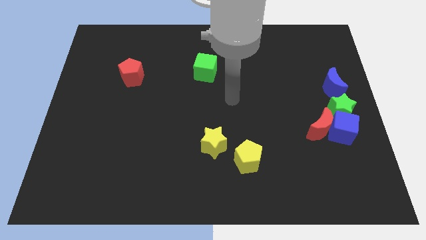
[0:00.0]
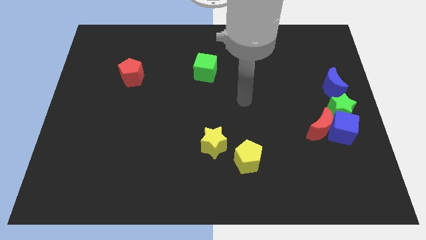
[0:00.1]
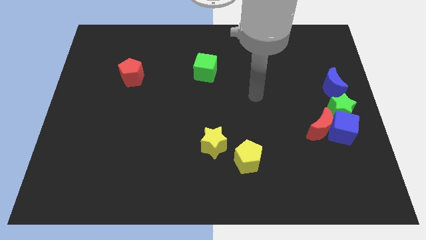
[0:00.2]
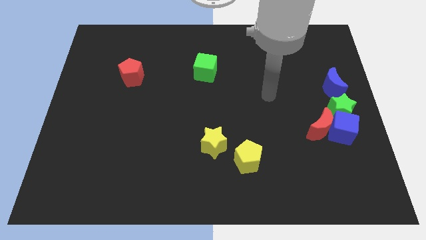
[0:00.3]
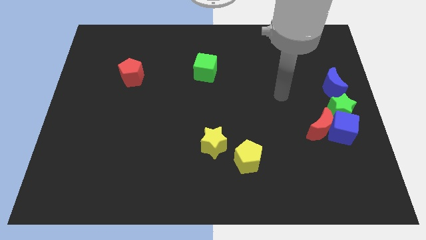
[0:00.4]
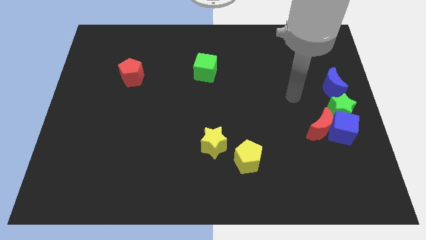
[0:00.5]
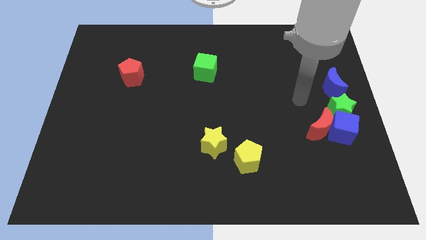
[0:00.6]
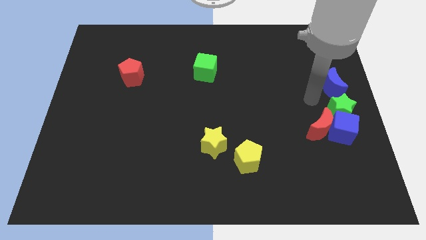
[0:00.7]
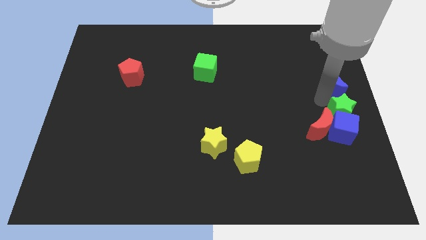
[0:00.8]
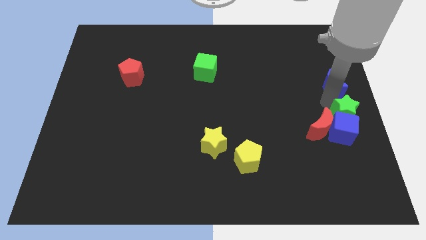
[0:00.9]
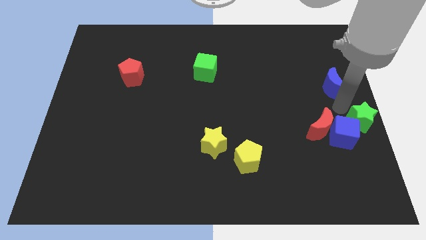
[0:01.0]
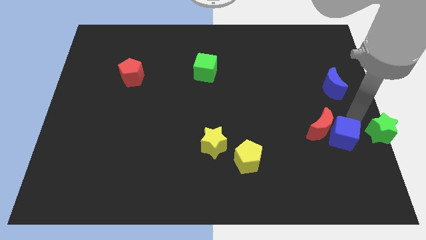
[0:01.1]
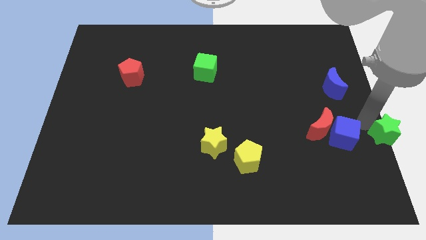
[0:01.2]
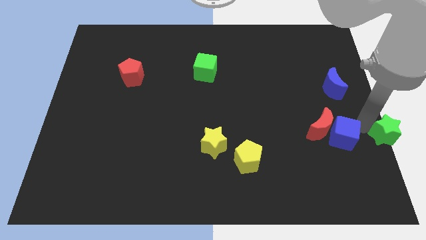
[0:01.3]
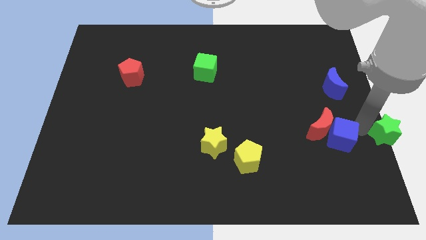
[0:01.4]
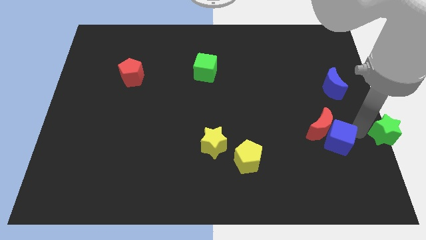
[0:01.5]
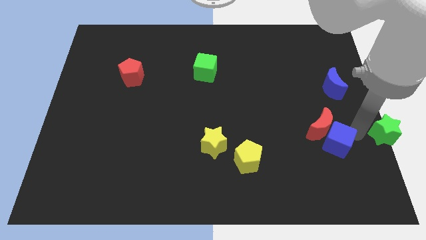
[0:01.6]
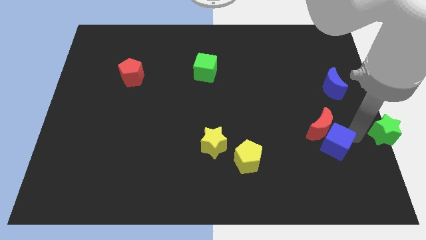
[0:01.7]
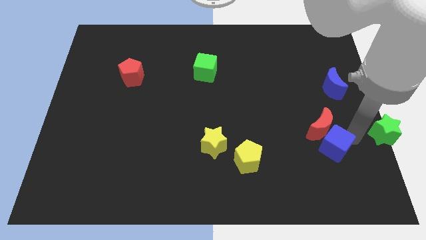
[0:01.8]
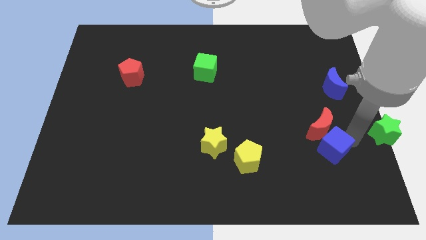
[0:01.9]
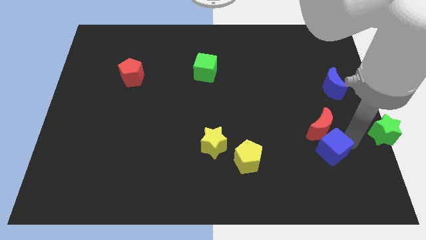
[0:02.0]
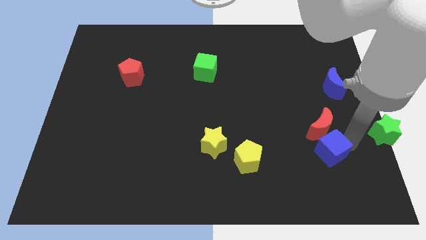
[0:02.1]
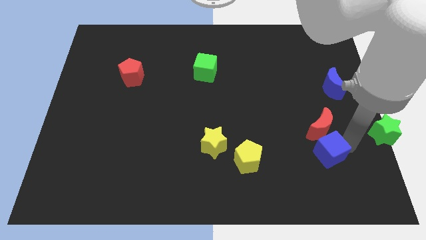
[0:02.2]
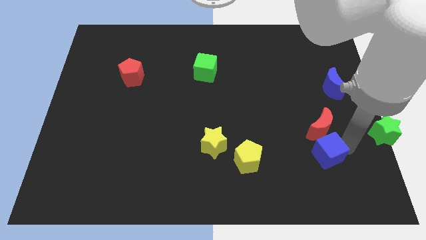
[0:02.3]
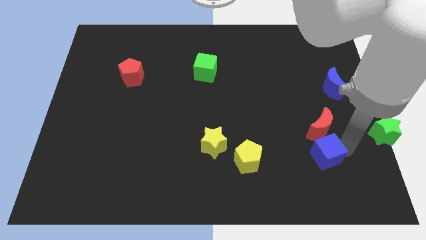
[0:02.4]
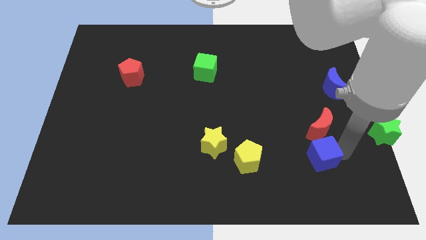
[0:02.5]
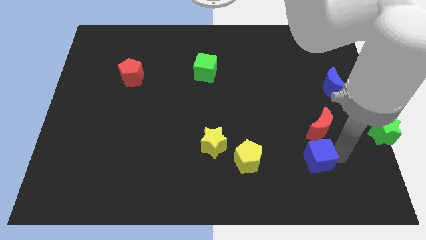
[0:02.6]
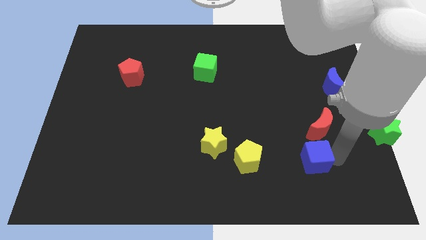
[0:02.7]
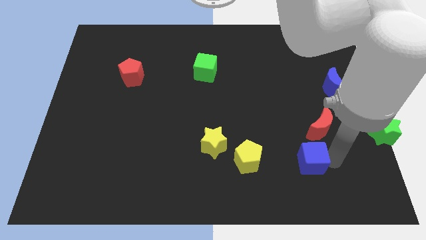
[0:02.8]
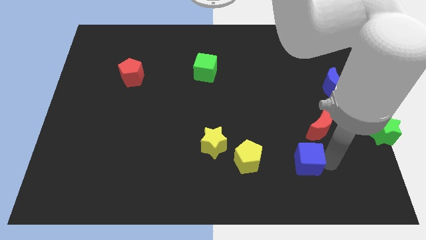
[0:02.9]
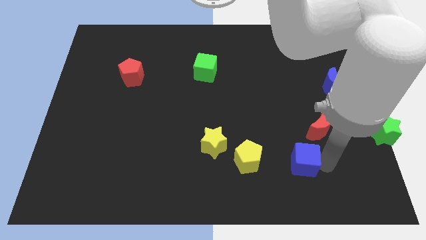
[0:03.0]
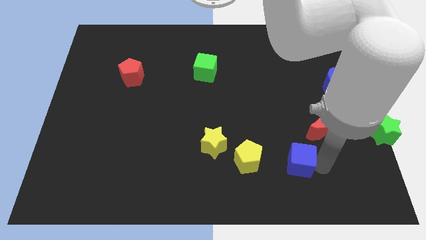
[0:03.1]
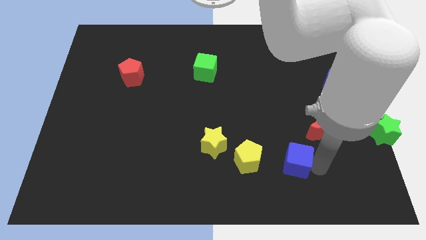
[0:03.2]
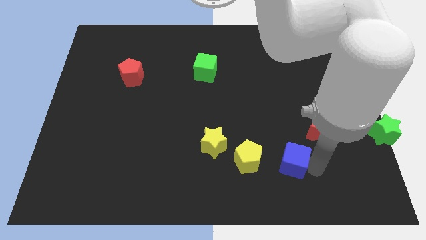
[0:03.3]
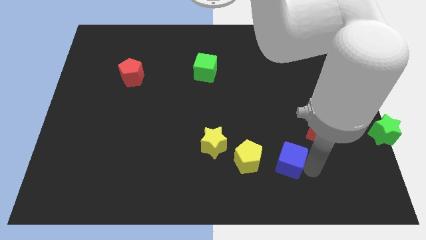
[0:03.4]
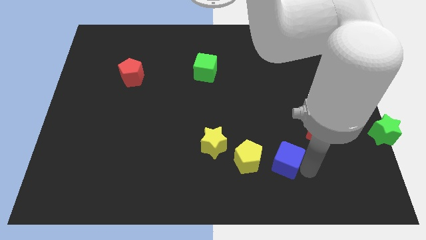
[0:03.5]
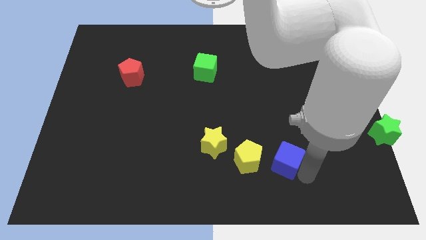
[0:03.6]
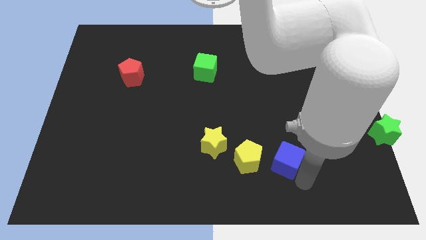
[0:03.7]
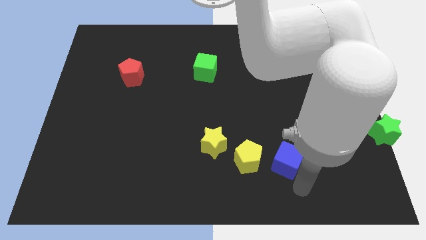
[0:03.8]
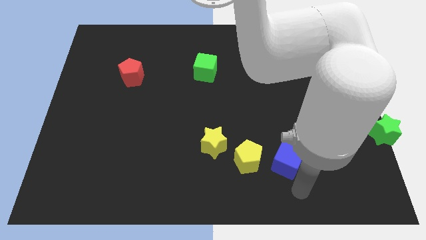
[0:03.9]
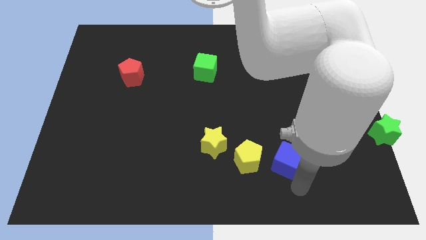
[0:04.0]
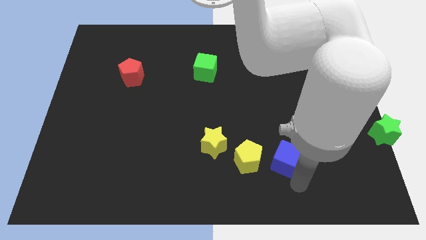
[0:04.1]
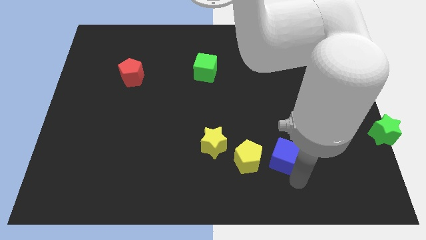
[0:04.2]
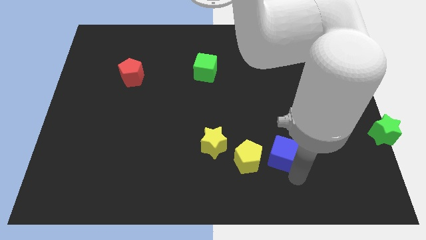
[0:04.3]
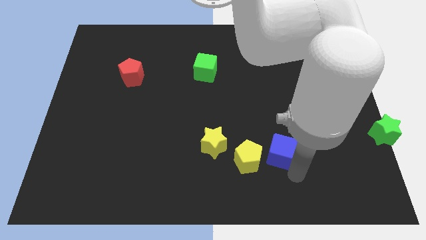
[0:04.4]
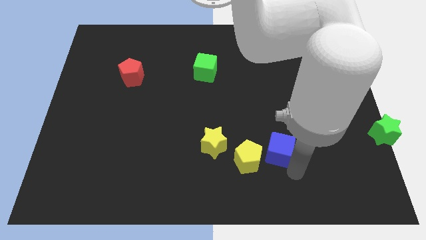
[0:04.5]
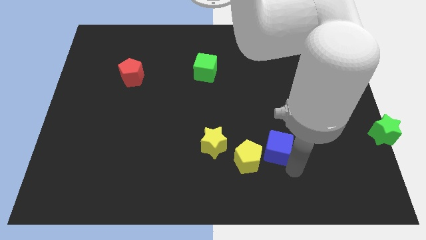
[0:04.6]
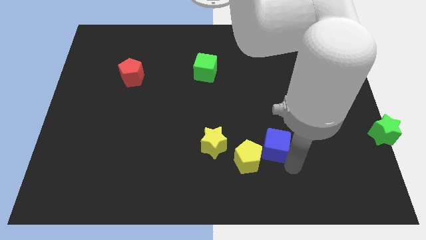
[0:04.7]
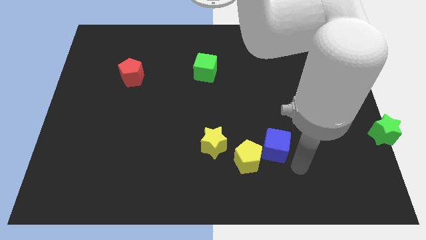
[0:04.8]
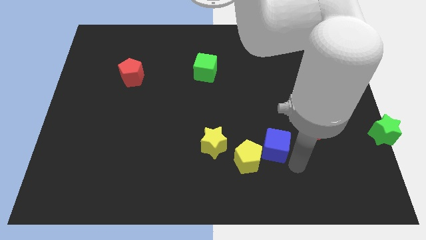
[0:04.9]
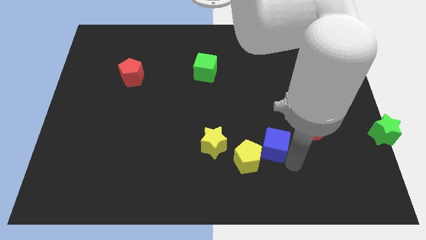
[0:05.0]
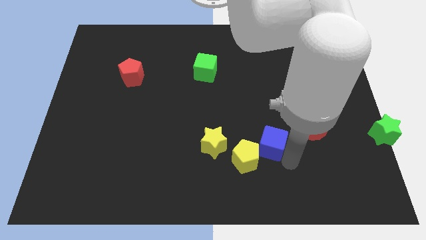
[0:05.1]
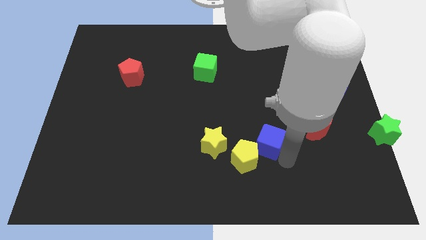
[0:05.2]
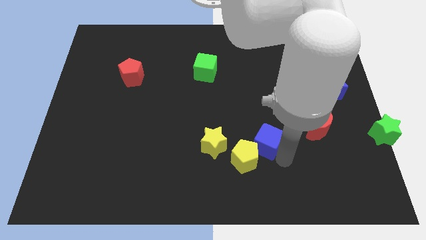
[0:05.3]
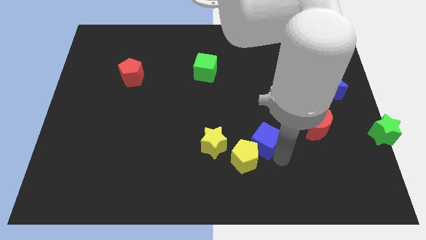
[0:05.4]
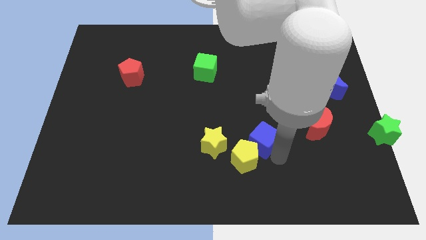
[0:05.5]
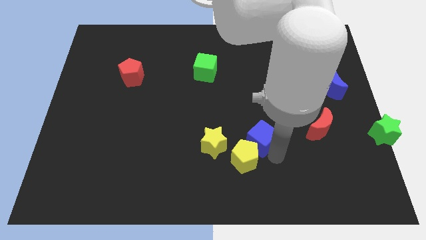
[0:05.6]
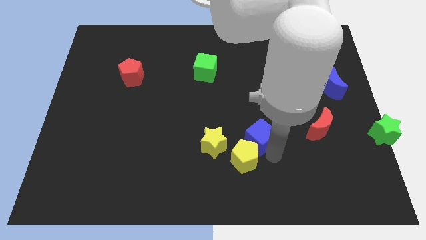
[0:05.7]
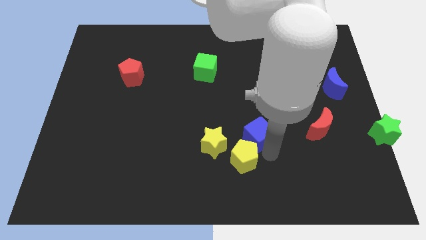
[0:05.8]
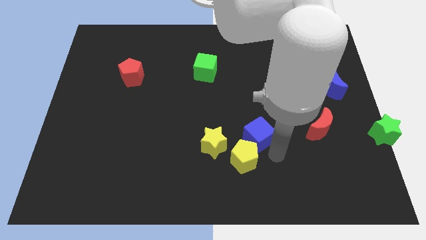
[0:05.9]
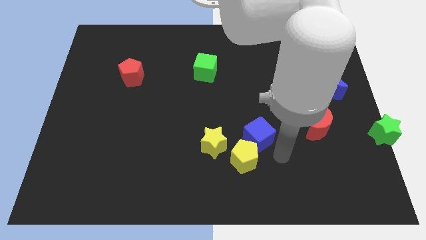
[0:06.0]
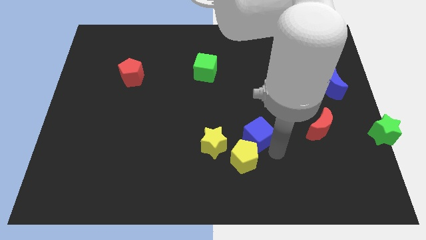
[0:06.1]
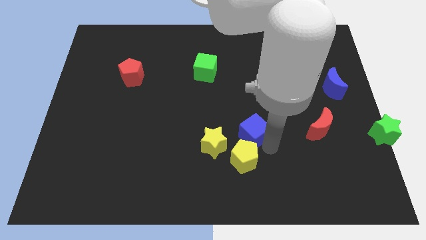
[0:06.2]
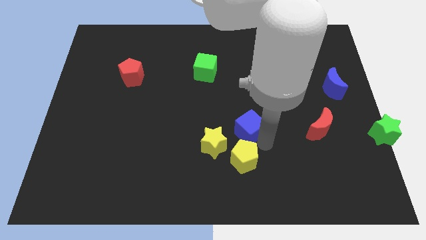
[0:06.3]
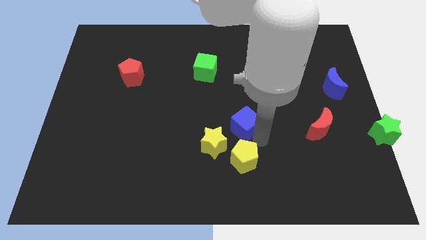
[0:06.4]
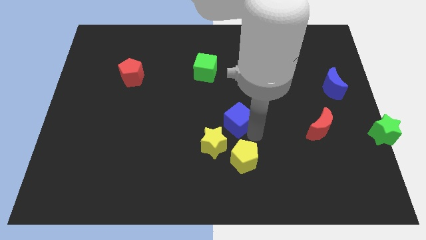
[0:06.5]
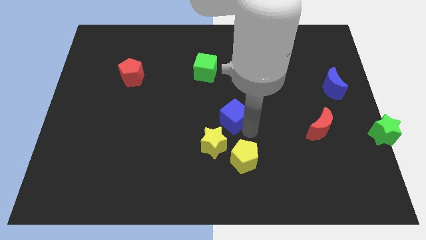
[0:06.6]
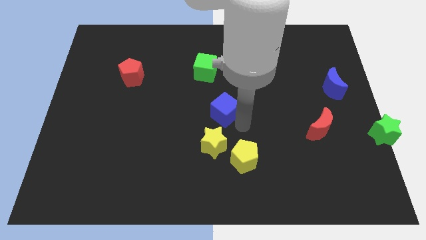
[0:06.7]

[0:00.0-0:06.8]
slide the blue cube below the green cube
